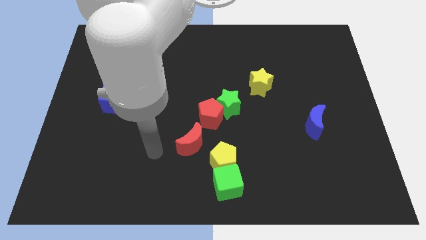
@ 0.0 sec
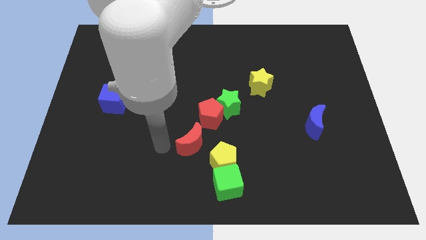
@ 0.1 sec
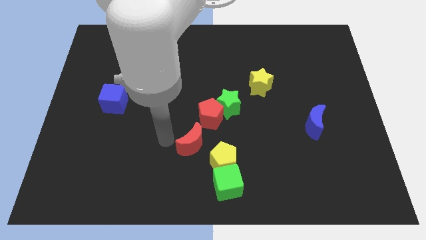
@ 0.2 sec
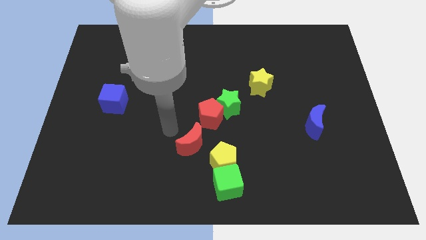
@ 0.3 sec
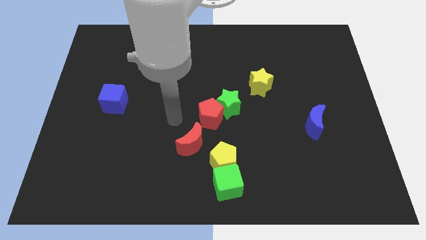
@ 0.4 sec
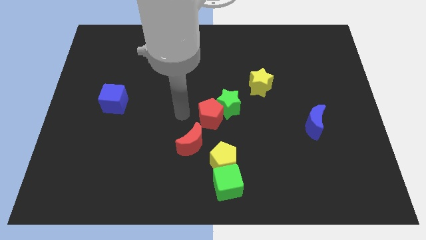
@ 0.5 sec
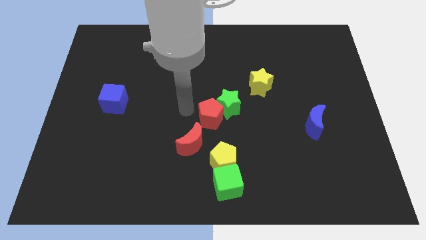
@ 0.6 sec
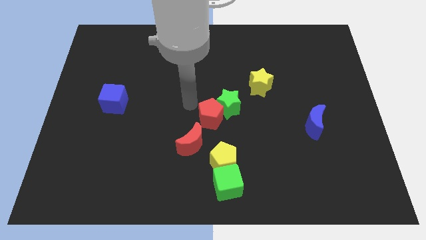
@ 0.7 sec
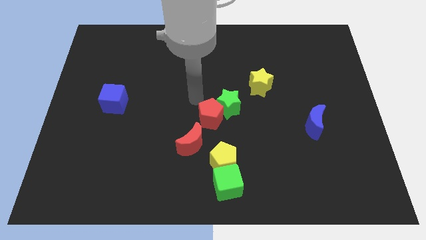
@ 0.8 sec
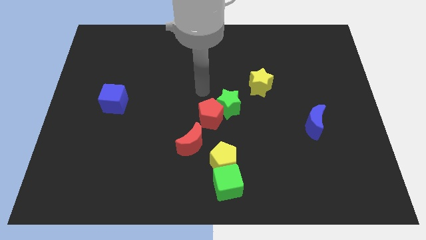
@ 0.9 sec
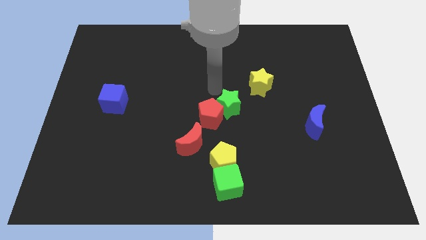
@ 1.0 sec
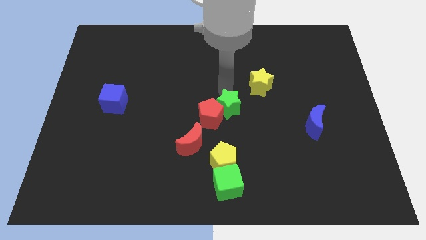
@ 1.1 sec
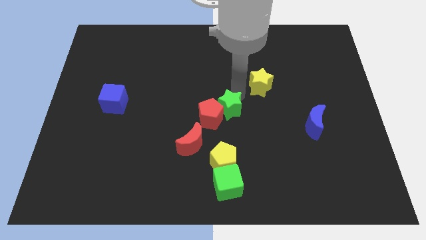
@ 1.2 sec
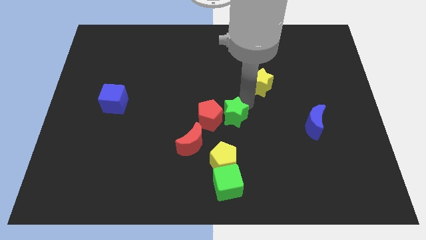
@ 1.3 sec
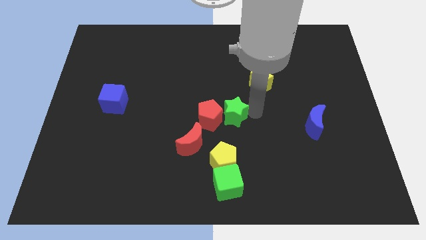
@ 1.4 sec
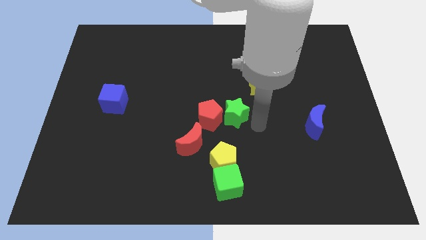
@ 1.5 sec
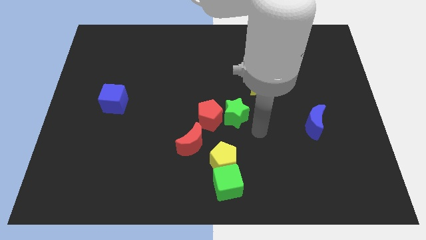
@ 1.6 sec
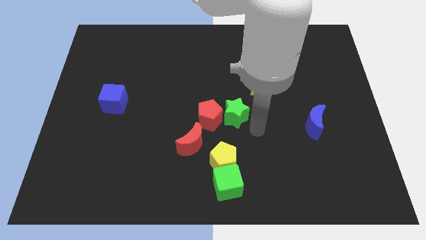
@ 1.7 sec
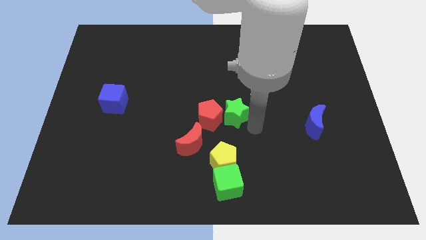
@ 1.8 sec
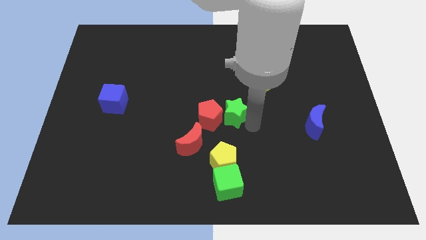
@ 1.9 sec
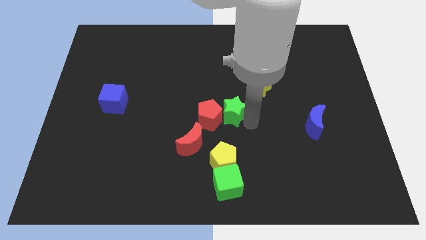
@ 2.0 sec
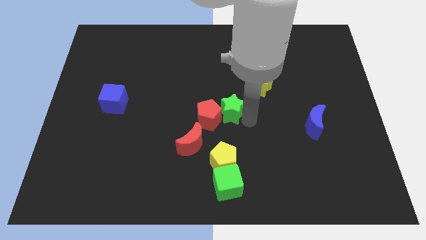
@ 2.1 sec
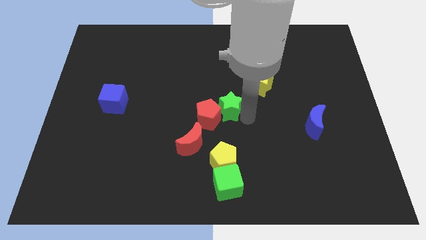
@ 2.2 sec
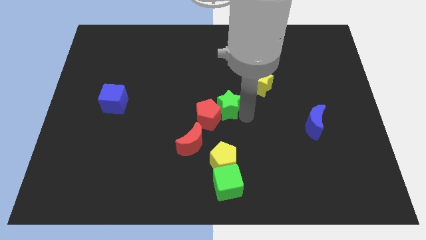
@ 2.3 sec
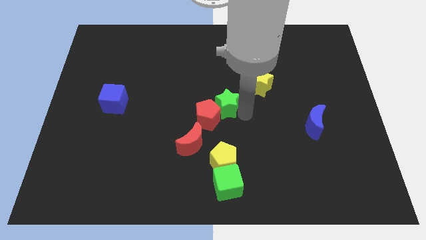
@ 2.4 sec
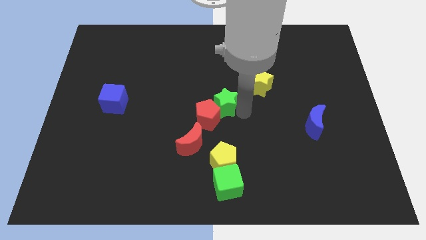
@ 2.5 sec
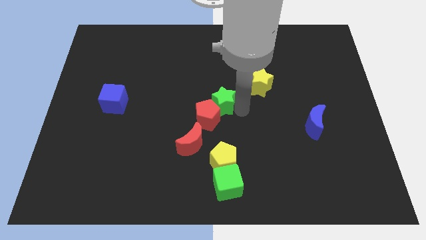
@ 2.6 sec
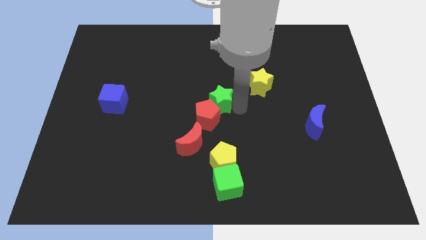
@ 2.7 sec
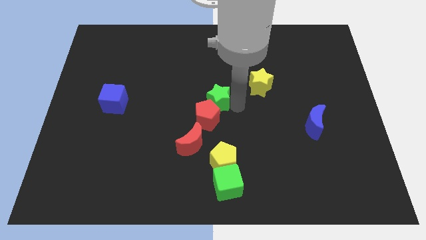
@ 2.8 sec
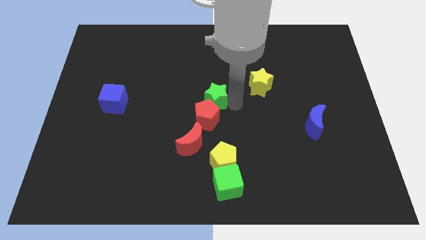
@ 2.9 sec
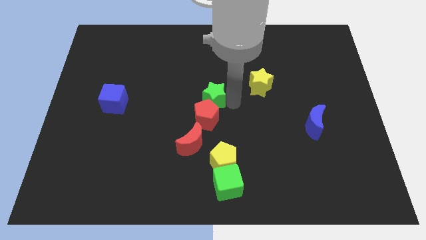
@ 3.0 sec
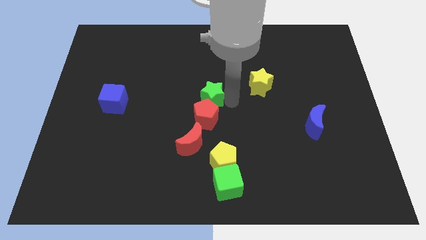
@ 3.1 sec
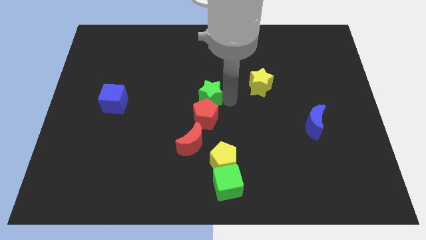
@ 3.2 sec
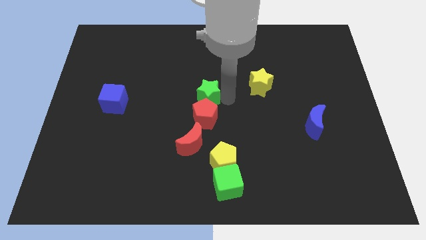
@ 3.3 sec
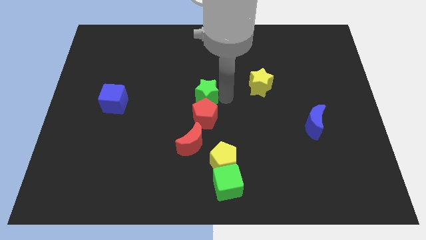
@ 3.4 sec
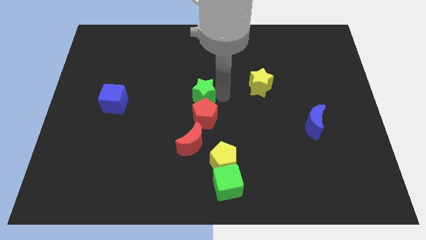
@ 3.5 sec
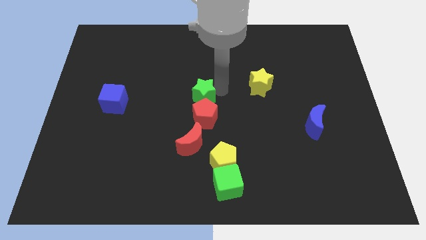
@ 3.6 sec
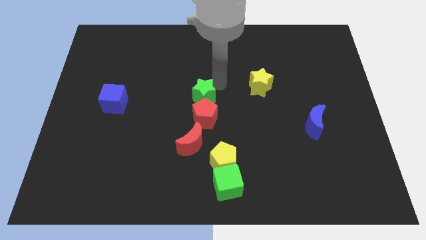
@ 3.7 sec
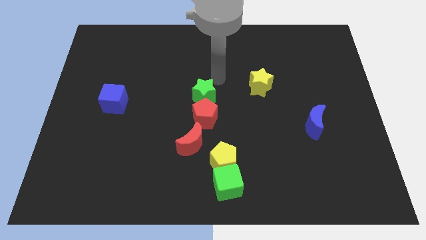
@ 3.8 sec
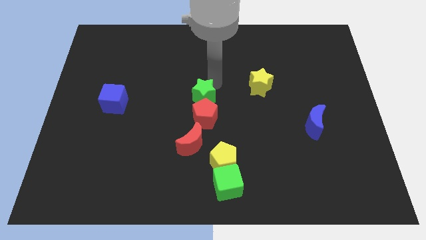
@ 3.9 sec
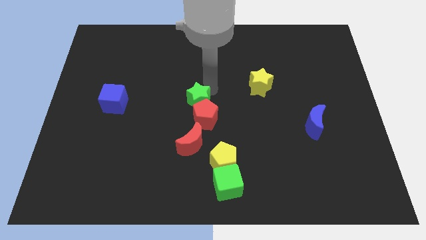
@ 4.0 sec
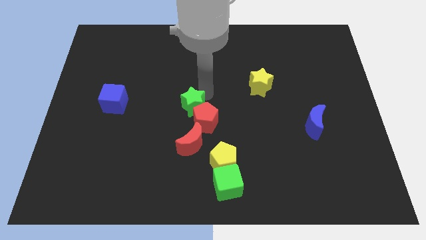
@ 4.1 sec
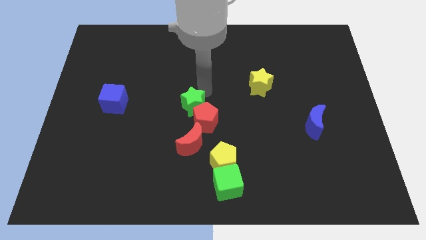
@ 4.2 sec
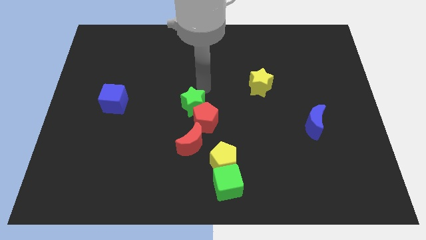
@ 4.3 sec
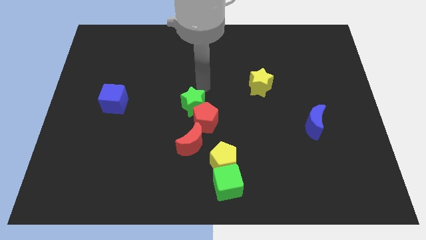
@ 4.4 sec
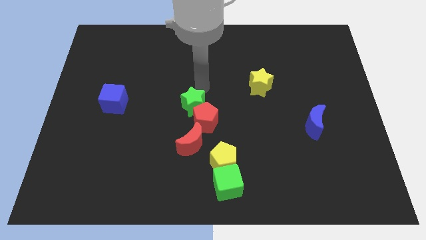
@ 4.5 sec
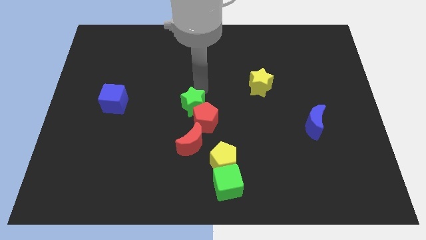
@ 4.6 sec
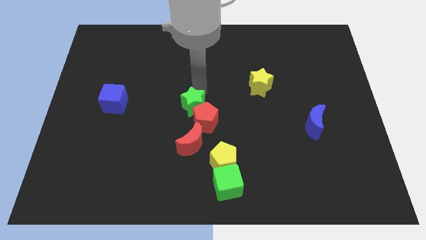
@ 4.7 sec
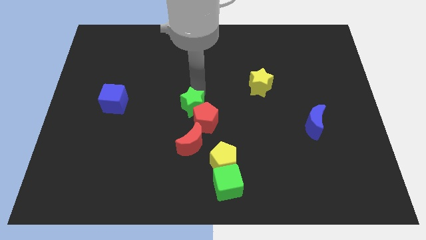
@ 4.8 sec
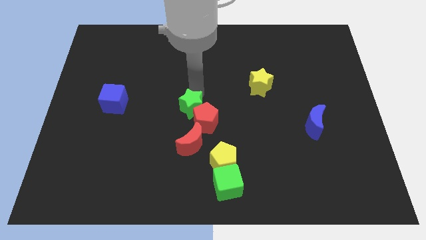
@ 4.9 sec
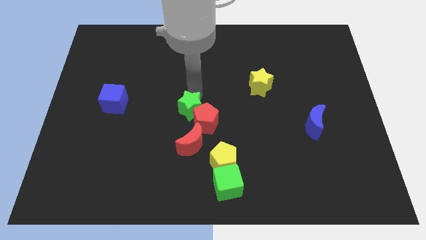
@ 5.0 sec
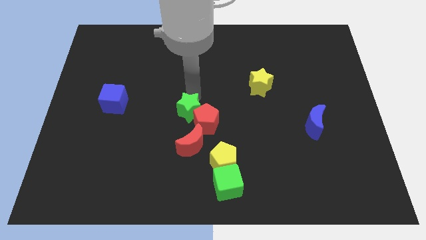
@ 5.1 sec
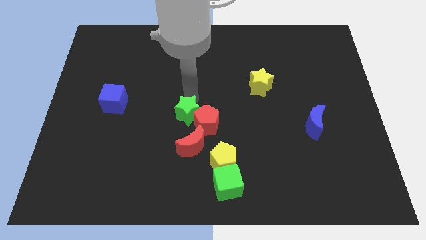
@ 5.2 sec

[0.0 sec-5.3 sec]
move the green star downwards and then left a little bit

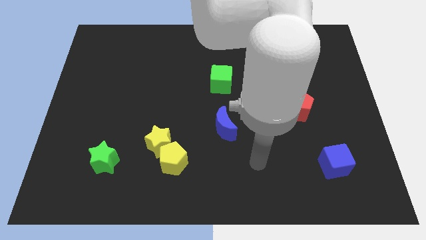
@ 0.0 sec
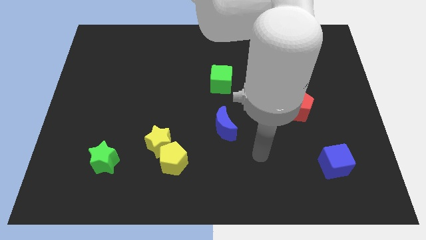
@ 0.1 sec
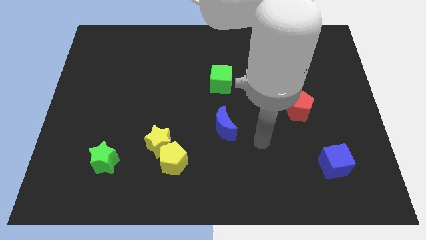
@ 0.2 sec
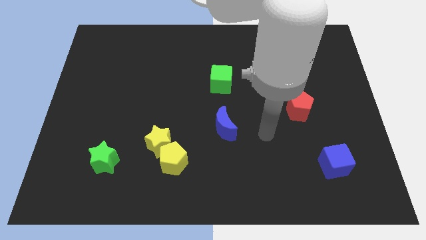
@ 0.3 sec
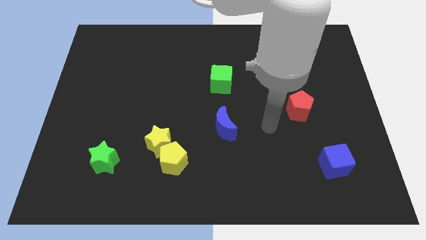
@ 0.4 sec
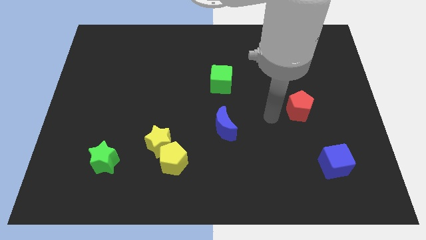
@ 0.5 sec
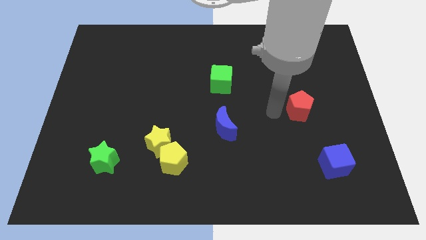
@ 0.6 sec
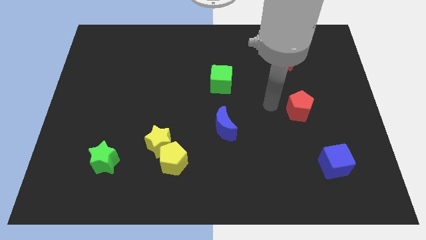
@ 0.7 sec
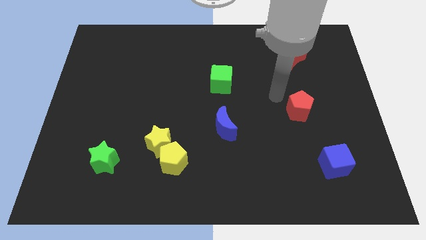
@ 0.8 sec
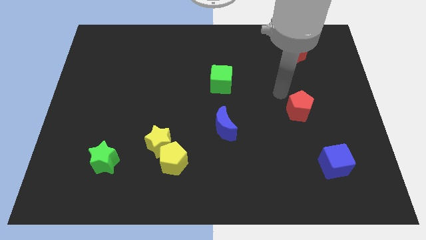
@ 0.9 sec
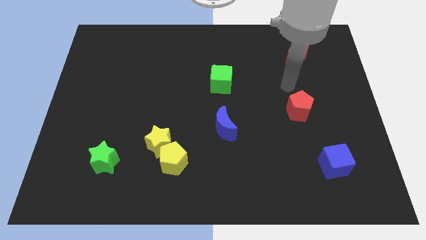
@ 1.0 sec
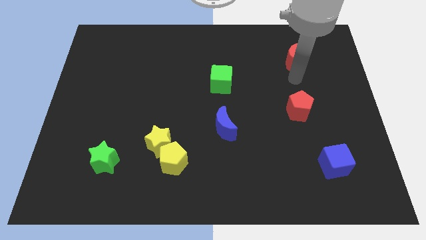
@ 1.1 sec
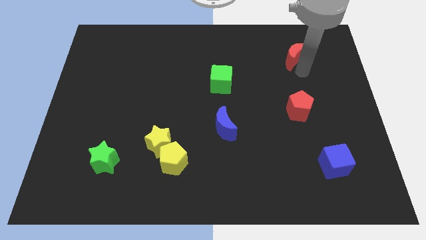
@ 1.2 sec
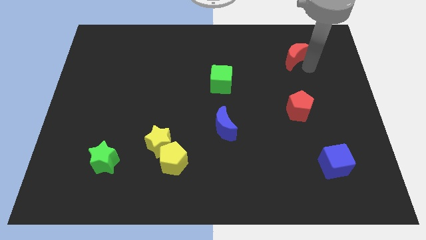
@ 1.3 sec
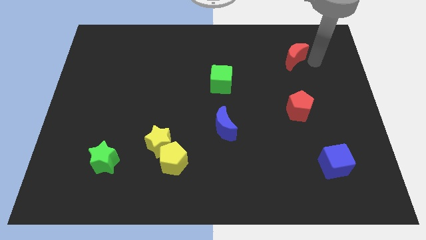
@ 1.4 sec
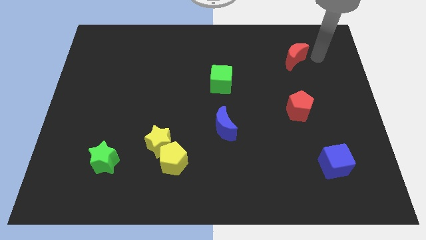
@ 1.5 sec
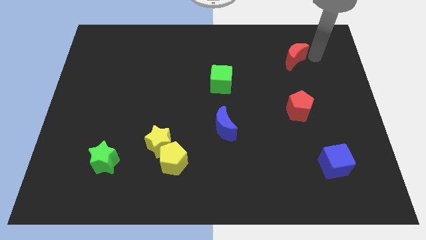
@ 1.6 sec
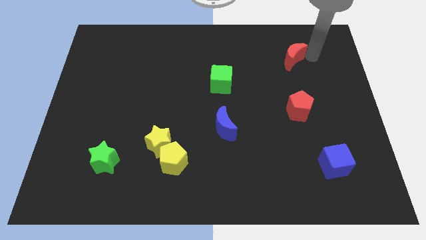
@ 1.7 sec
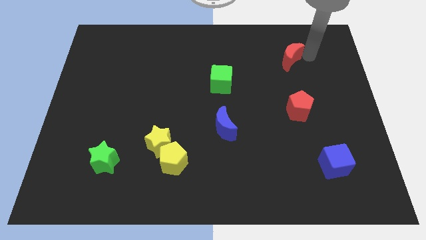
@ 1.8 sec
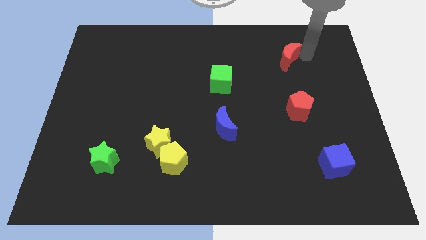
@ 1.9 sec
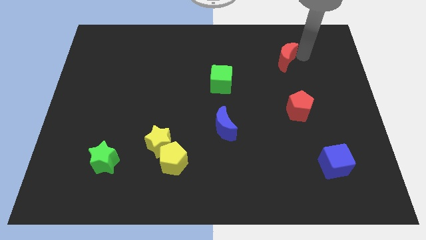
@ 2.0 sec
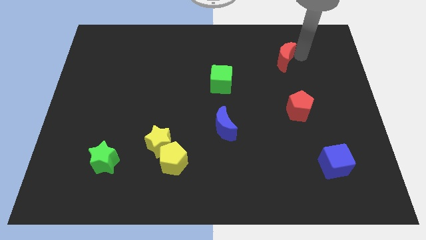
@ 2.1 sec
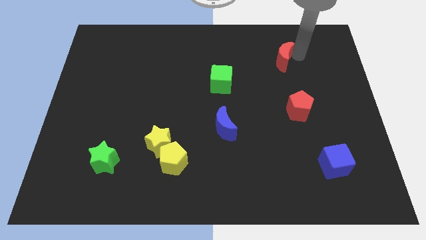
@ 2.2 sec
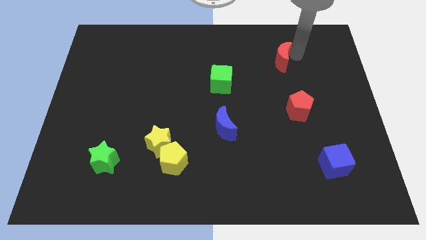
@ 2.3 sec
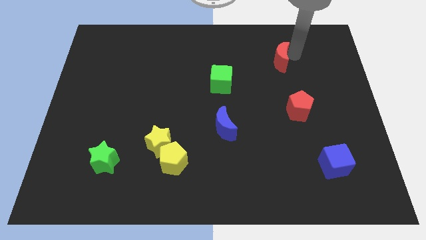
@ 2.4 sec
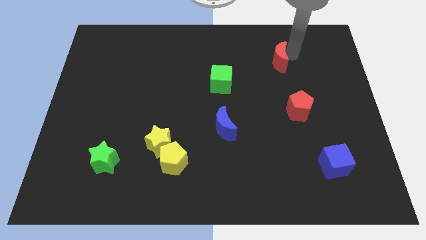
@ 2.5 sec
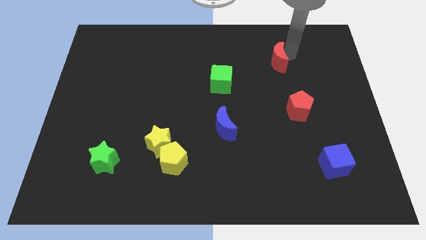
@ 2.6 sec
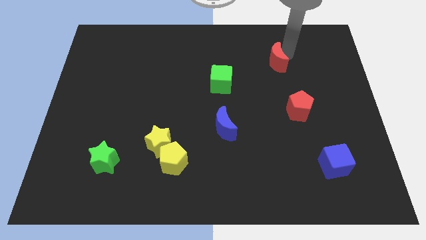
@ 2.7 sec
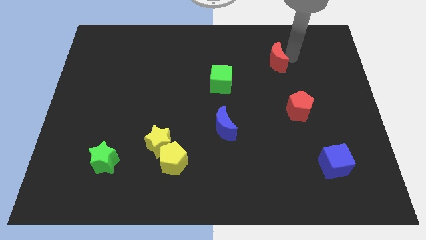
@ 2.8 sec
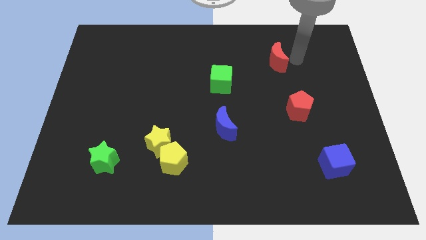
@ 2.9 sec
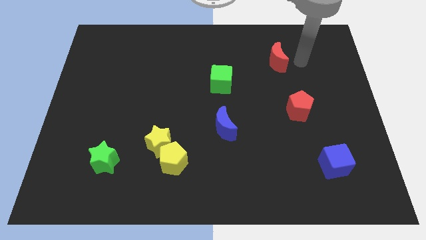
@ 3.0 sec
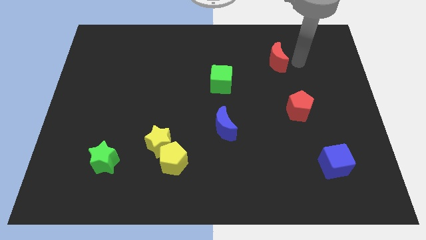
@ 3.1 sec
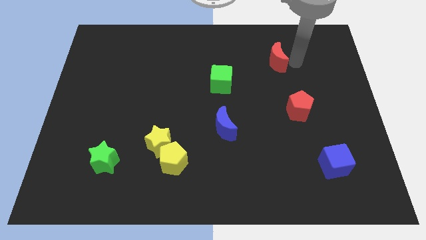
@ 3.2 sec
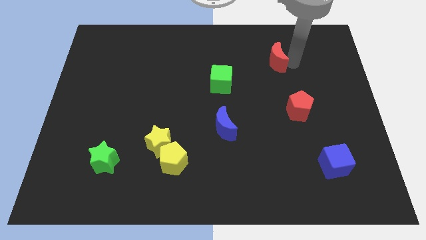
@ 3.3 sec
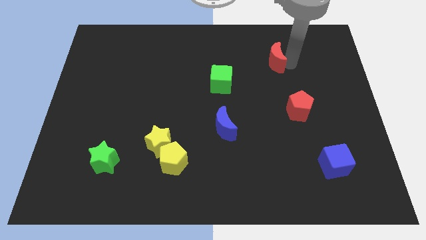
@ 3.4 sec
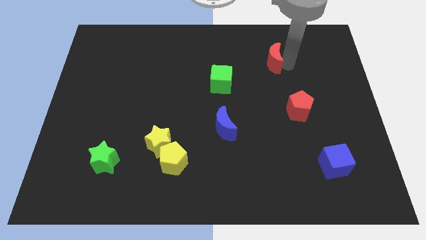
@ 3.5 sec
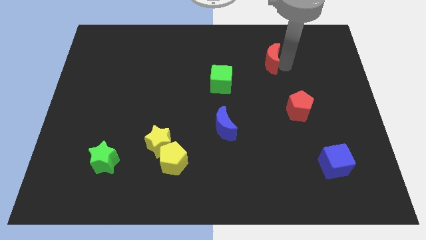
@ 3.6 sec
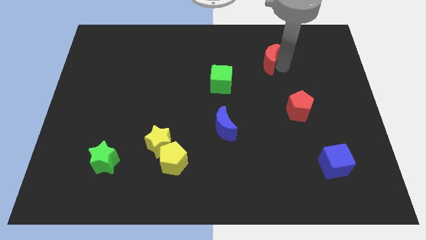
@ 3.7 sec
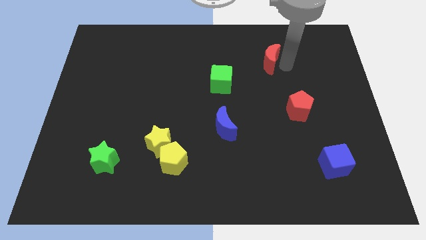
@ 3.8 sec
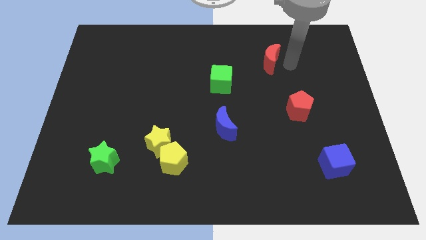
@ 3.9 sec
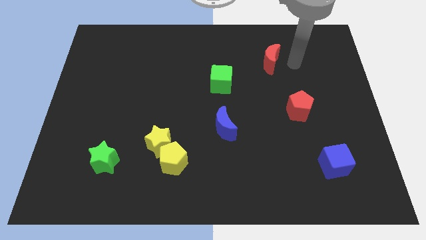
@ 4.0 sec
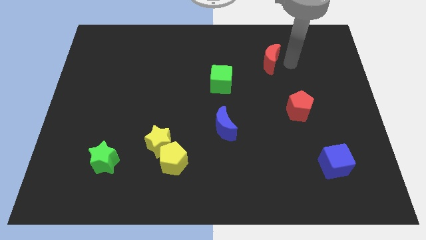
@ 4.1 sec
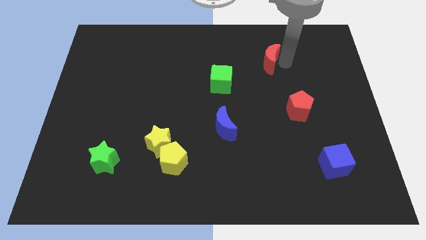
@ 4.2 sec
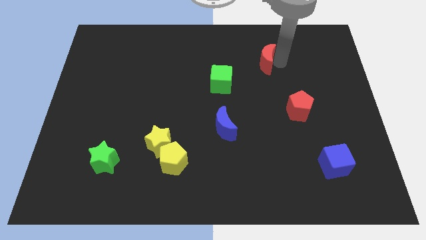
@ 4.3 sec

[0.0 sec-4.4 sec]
slightly push the red moon to the left
